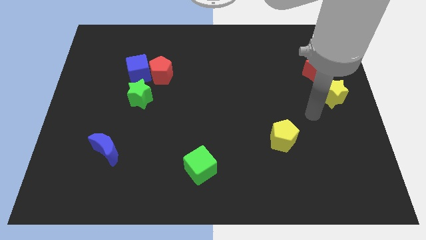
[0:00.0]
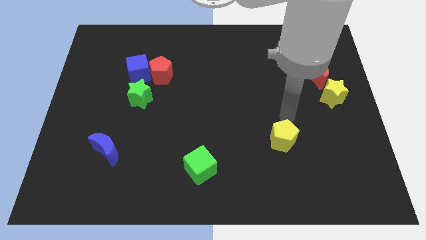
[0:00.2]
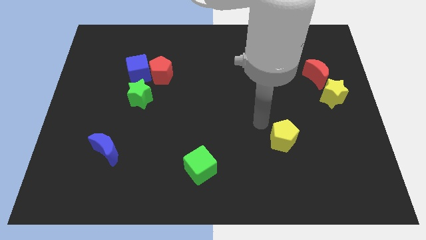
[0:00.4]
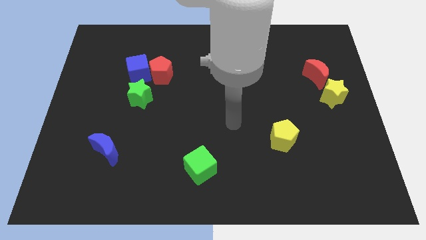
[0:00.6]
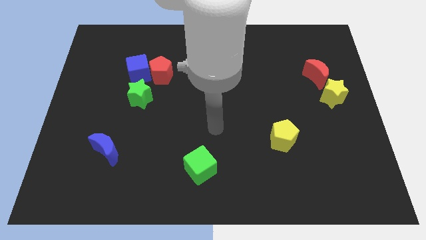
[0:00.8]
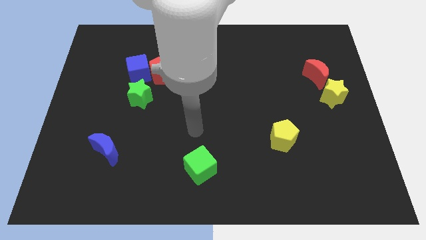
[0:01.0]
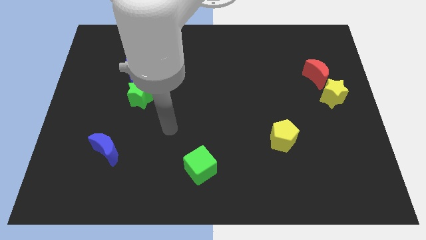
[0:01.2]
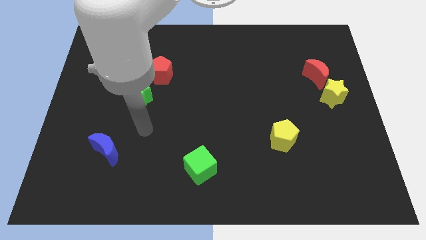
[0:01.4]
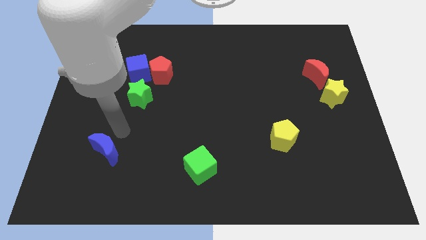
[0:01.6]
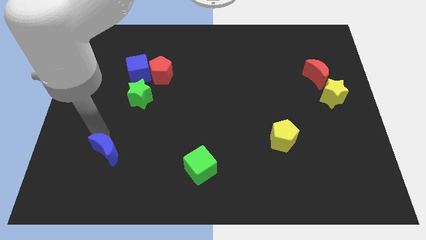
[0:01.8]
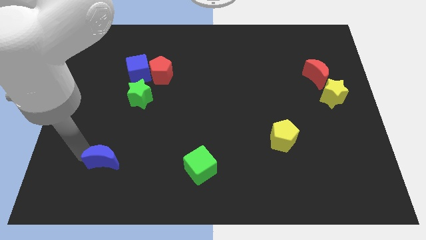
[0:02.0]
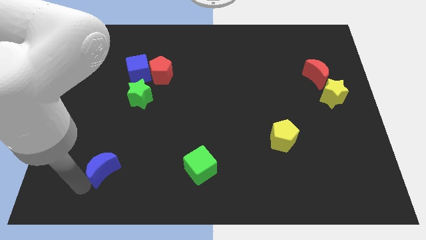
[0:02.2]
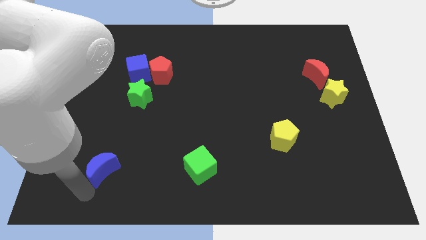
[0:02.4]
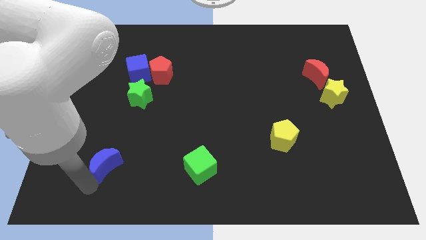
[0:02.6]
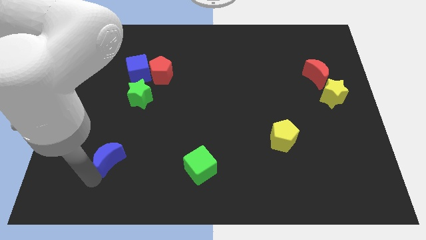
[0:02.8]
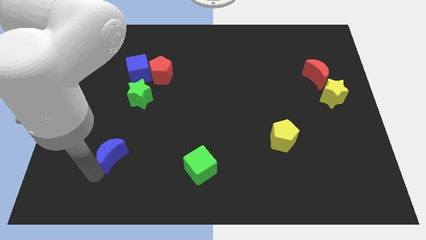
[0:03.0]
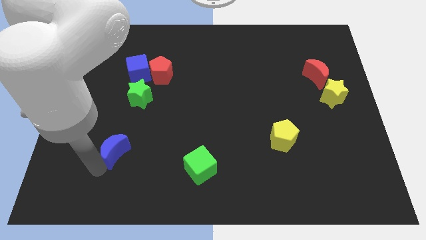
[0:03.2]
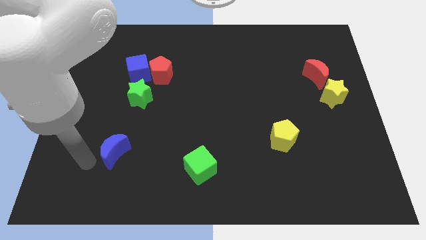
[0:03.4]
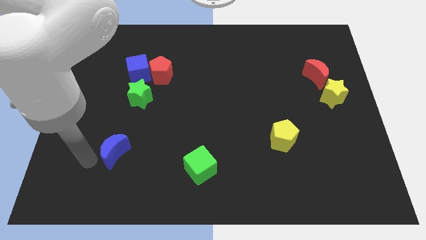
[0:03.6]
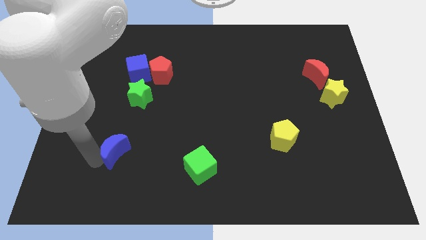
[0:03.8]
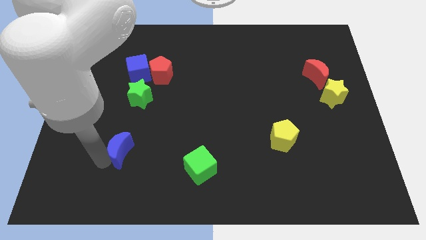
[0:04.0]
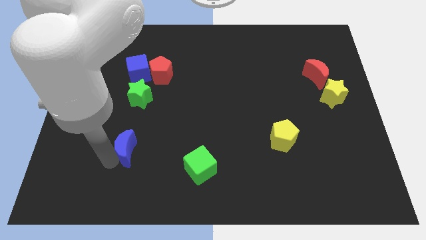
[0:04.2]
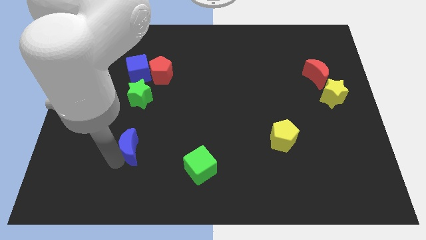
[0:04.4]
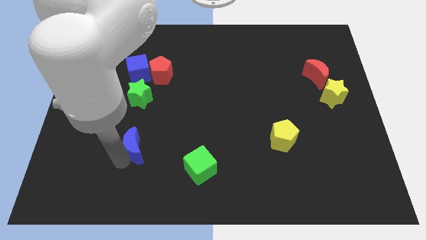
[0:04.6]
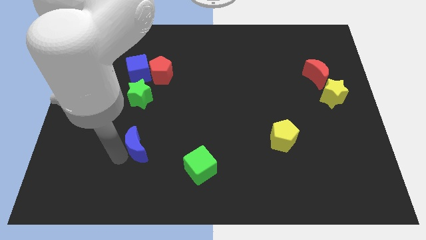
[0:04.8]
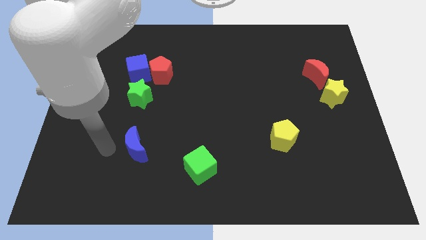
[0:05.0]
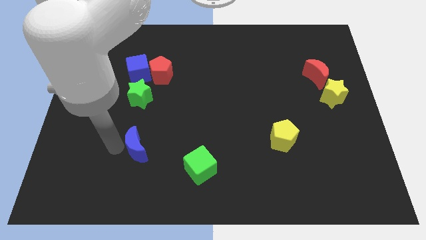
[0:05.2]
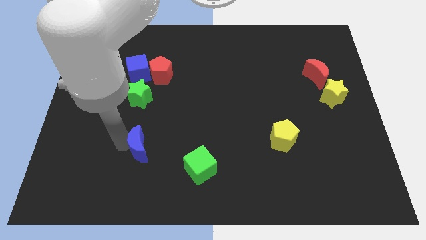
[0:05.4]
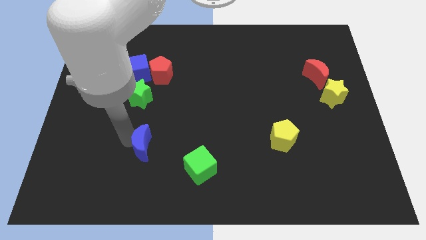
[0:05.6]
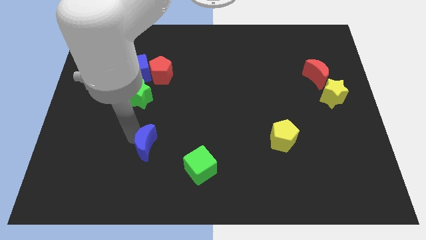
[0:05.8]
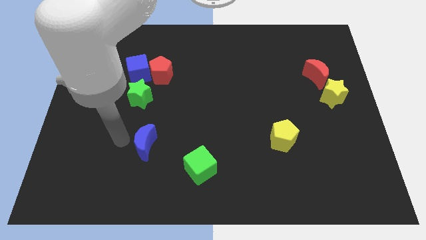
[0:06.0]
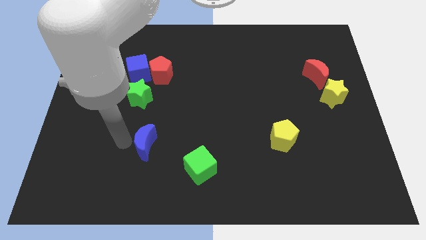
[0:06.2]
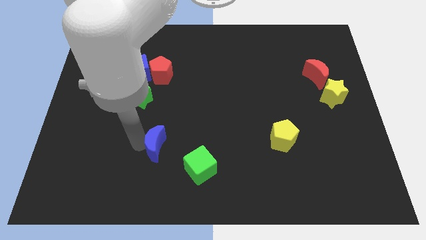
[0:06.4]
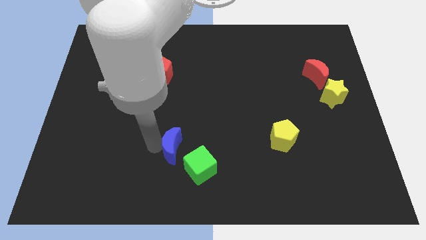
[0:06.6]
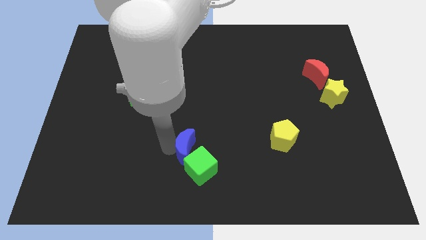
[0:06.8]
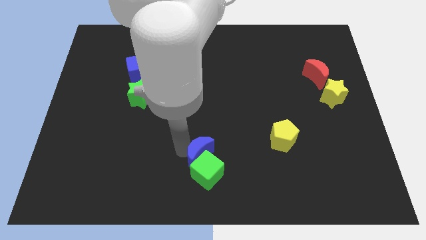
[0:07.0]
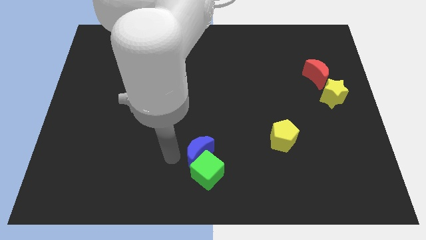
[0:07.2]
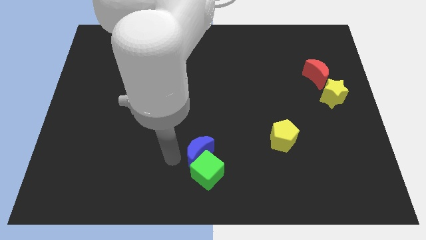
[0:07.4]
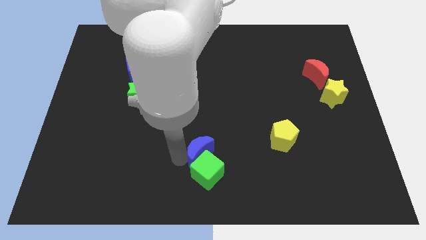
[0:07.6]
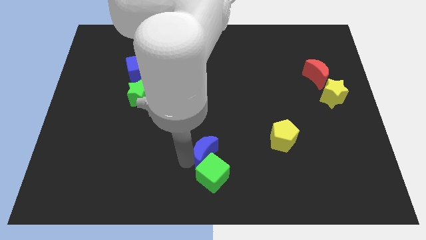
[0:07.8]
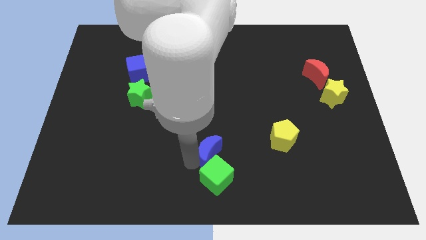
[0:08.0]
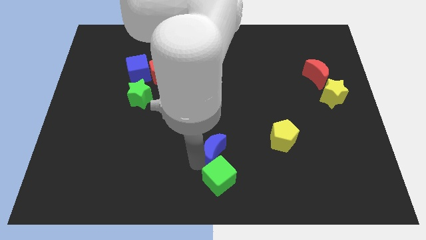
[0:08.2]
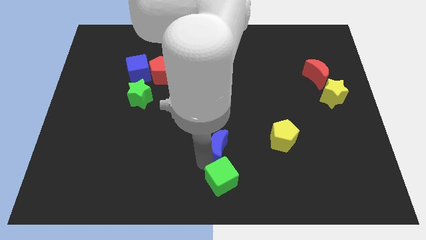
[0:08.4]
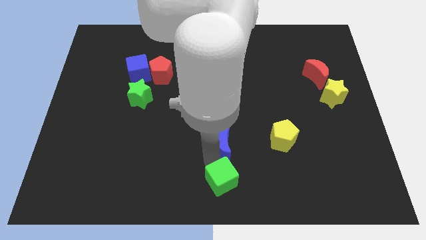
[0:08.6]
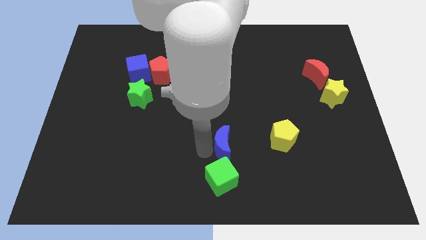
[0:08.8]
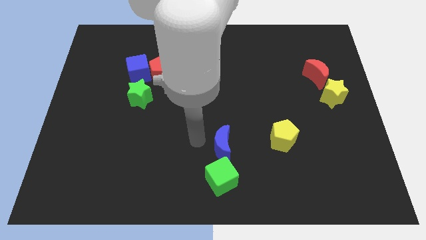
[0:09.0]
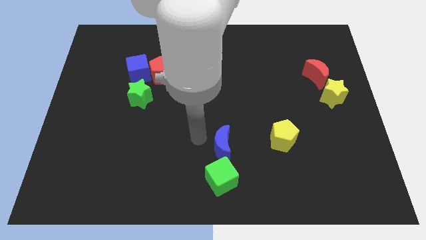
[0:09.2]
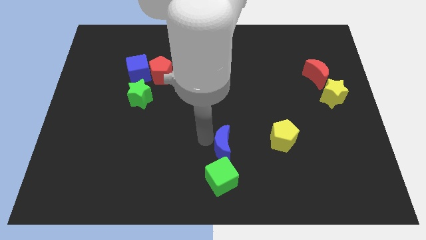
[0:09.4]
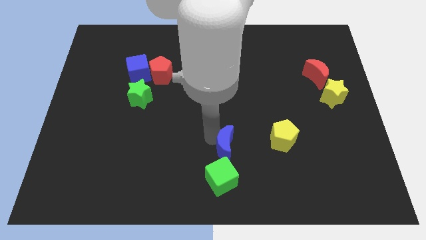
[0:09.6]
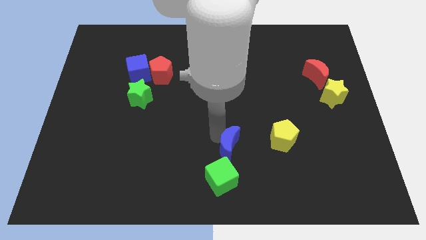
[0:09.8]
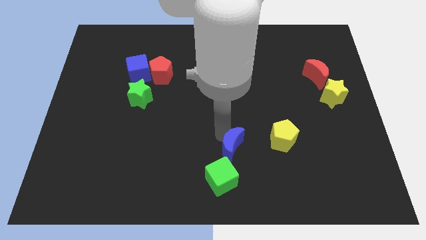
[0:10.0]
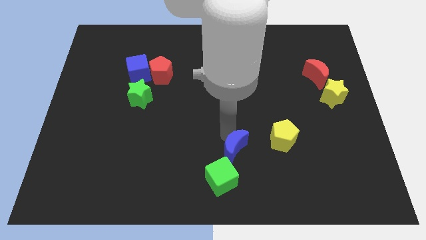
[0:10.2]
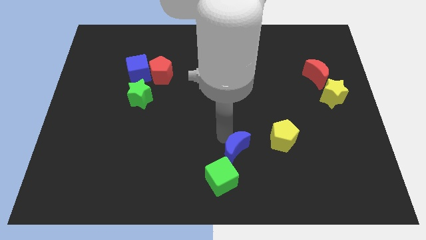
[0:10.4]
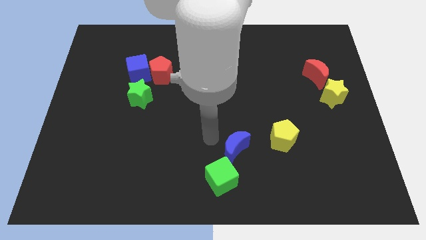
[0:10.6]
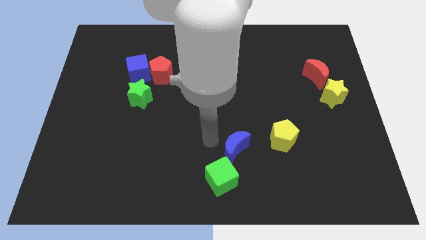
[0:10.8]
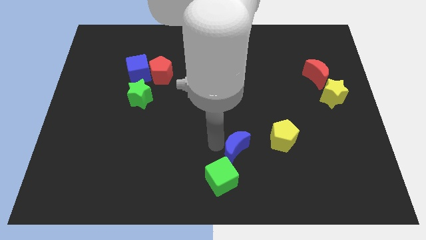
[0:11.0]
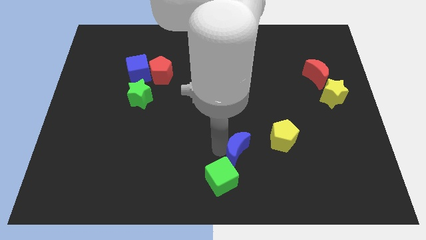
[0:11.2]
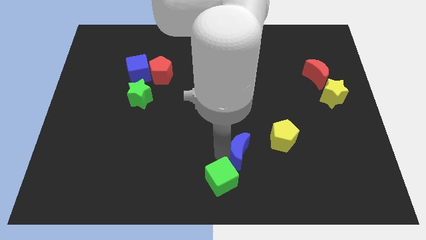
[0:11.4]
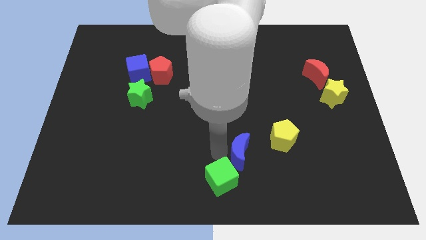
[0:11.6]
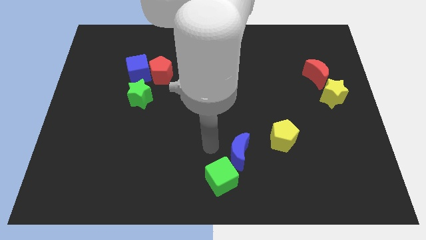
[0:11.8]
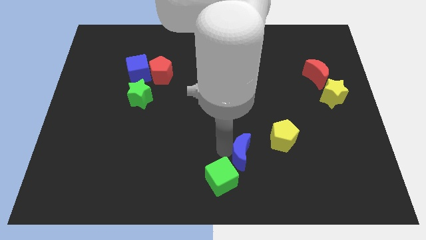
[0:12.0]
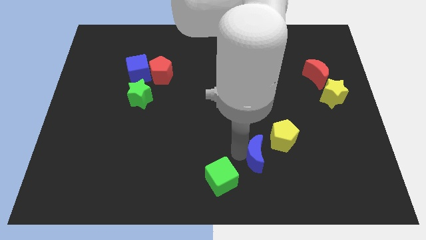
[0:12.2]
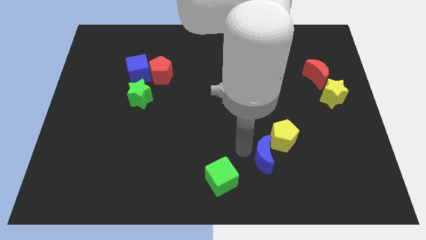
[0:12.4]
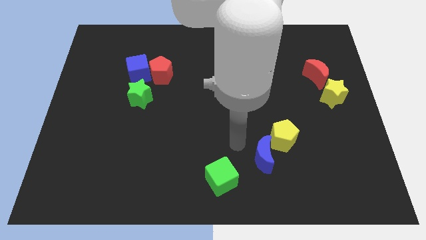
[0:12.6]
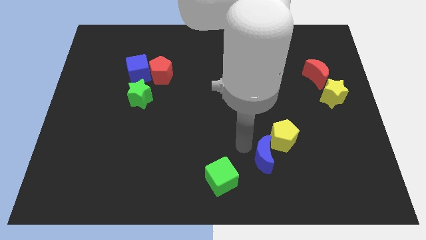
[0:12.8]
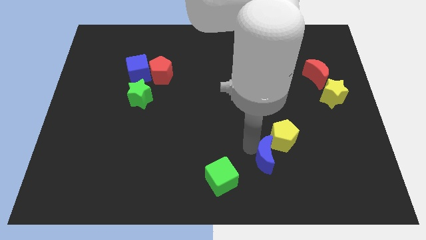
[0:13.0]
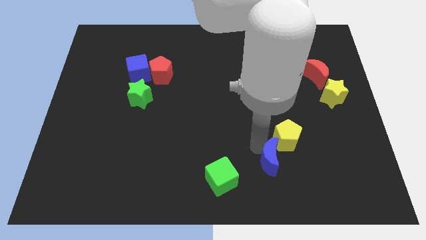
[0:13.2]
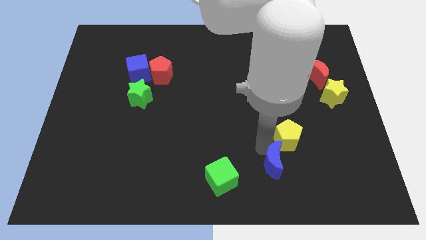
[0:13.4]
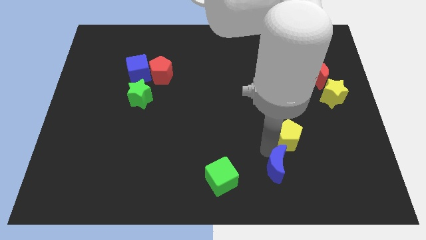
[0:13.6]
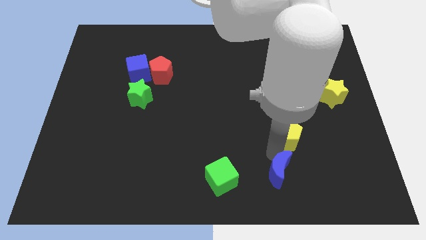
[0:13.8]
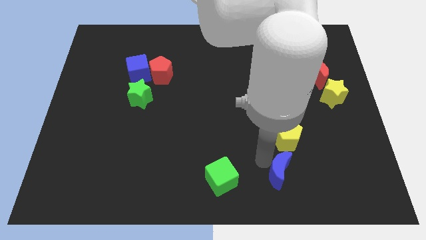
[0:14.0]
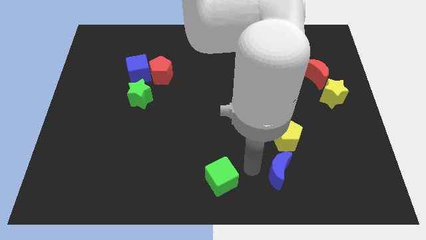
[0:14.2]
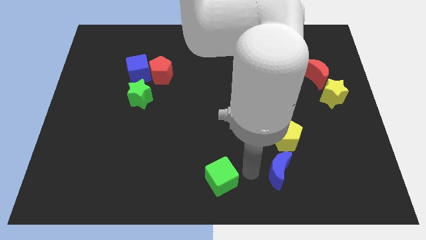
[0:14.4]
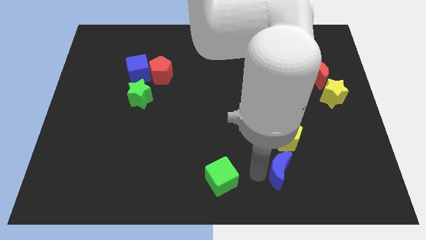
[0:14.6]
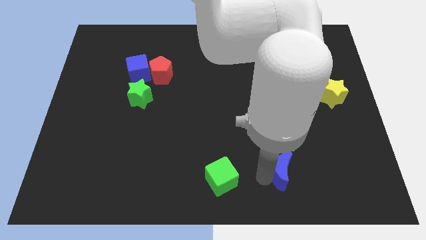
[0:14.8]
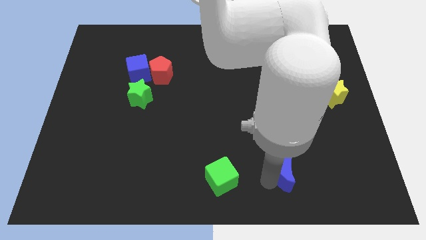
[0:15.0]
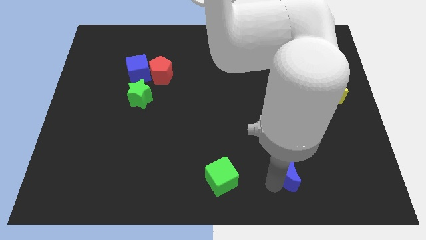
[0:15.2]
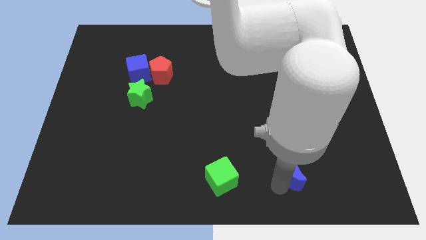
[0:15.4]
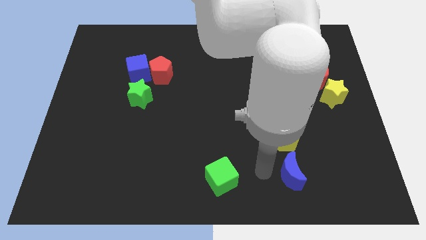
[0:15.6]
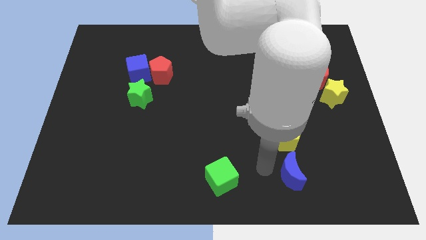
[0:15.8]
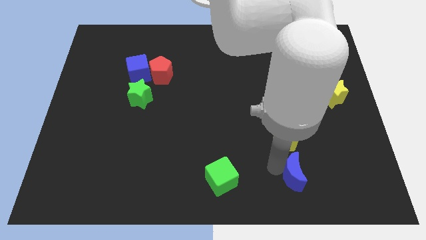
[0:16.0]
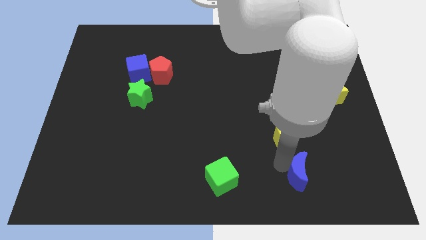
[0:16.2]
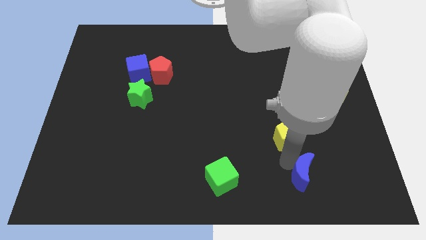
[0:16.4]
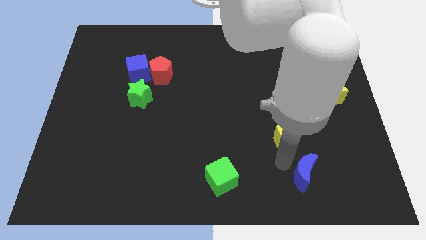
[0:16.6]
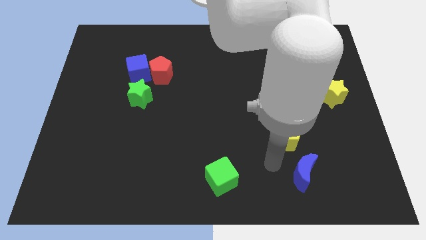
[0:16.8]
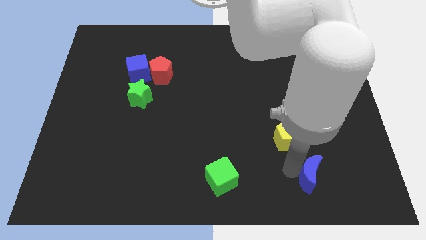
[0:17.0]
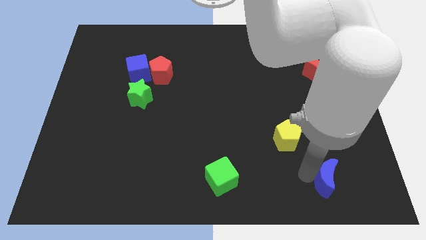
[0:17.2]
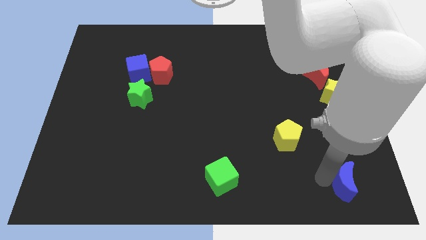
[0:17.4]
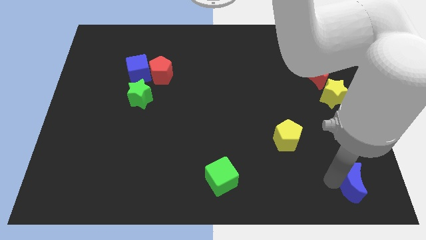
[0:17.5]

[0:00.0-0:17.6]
put the blue moon to the bottom right
